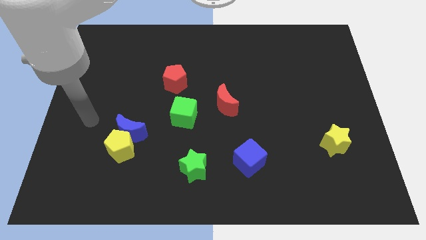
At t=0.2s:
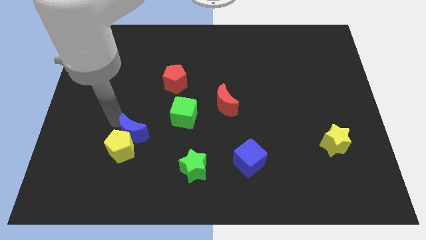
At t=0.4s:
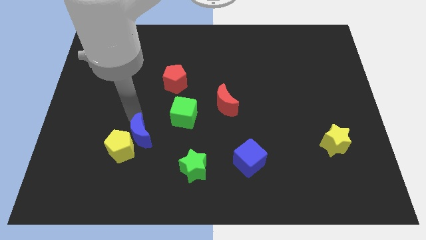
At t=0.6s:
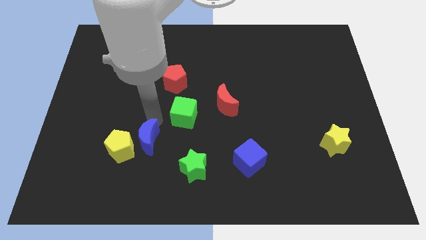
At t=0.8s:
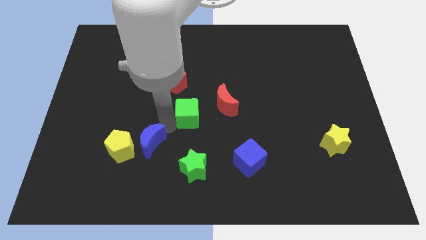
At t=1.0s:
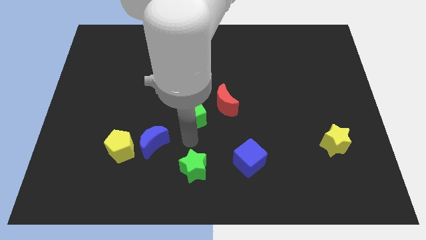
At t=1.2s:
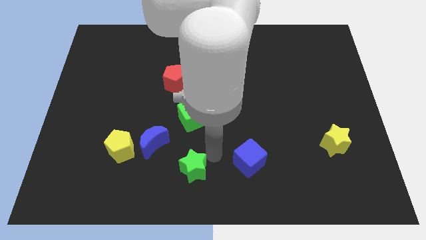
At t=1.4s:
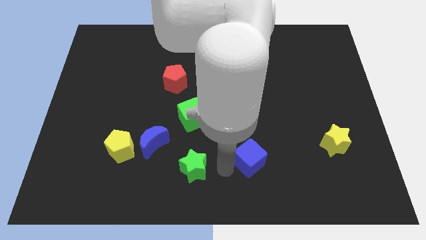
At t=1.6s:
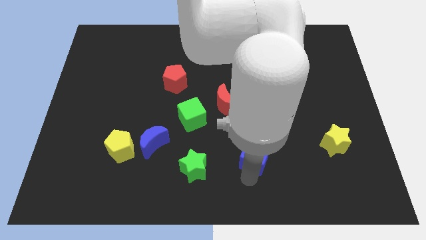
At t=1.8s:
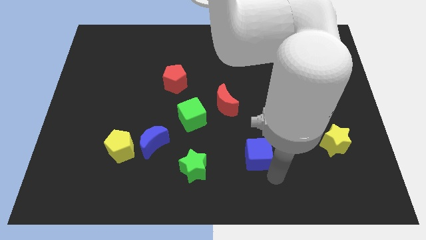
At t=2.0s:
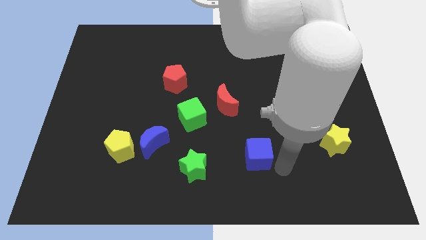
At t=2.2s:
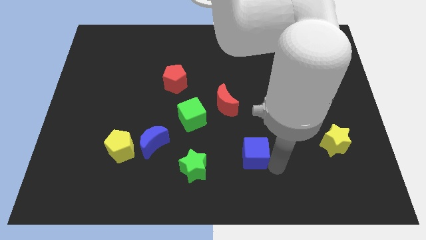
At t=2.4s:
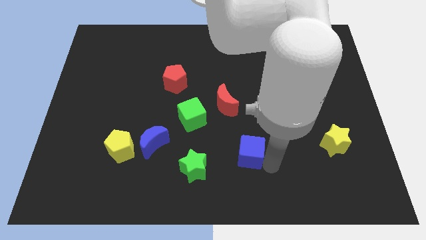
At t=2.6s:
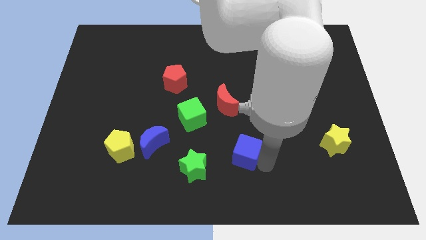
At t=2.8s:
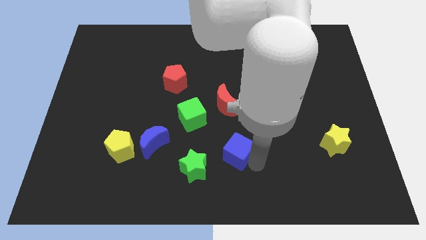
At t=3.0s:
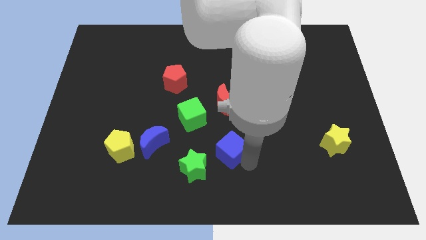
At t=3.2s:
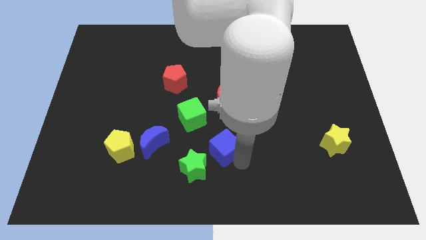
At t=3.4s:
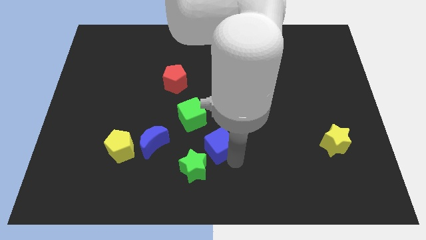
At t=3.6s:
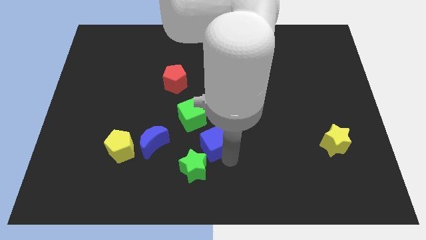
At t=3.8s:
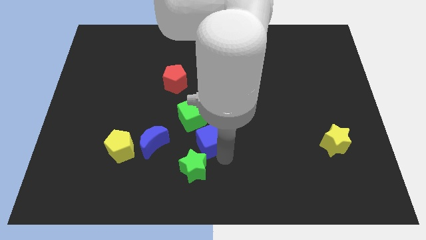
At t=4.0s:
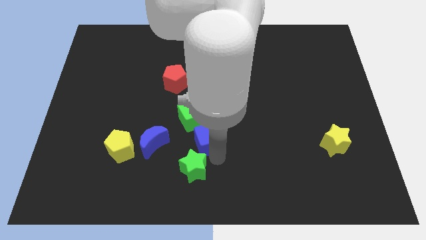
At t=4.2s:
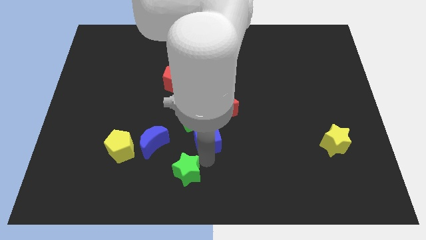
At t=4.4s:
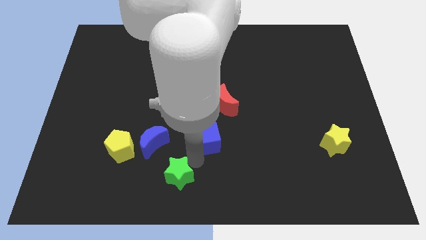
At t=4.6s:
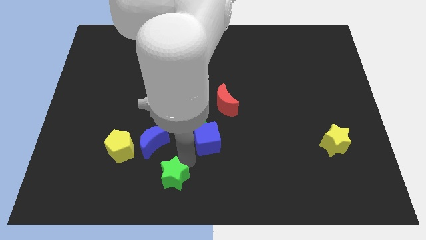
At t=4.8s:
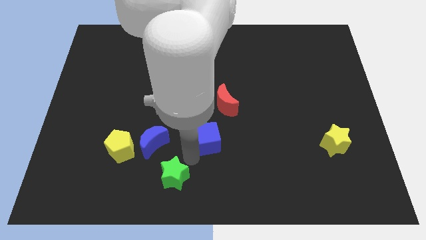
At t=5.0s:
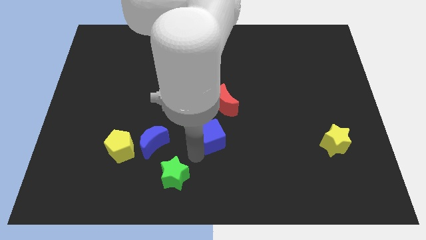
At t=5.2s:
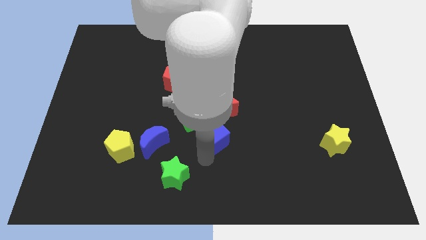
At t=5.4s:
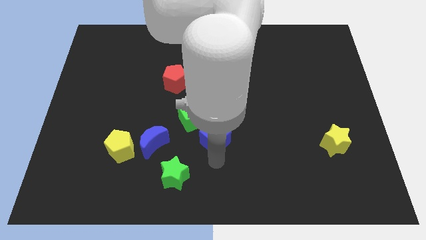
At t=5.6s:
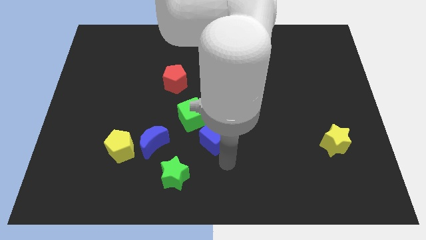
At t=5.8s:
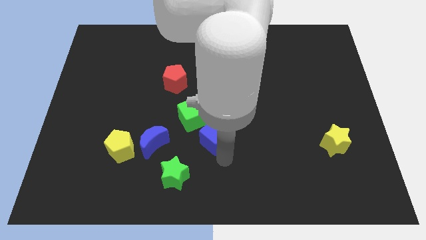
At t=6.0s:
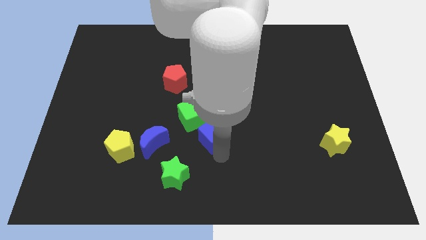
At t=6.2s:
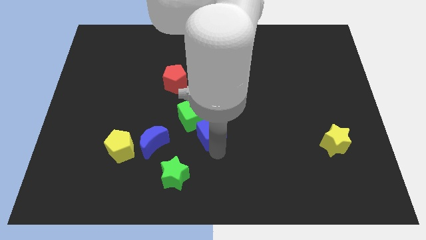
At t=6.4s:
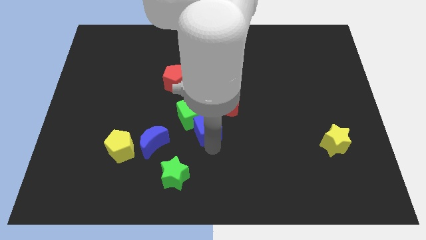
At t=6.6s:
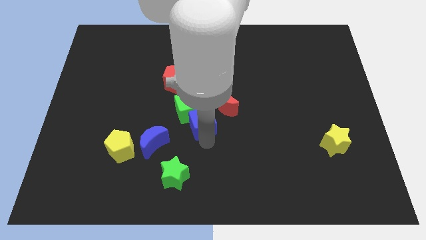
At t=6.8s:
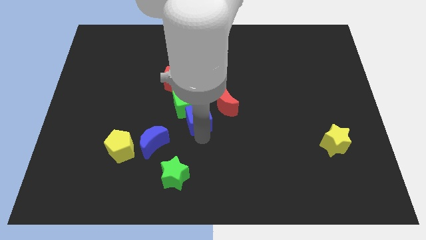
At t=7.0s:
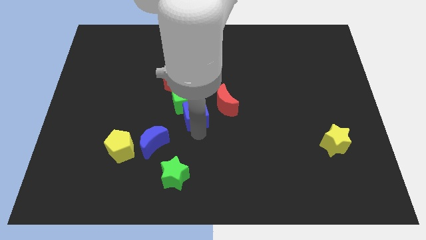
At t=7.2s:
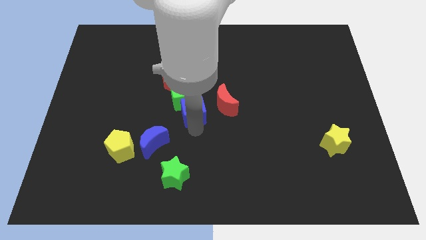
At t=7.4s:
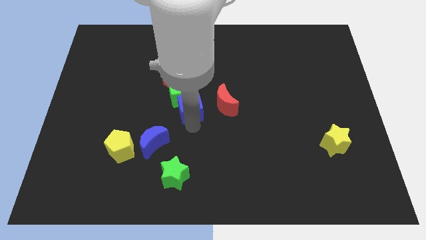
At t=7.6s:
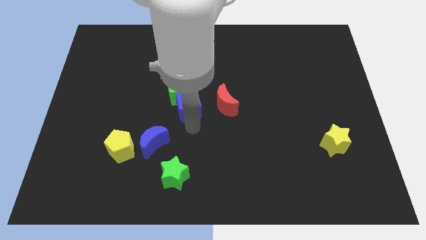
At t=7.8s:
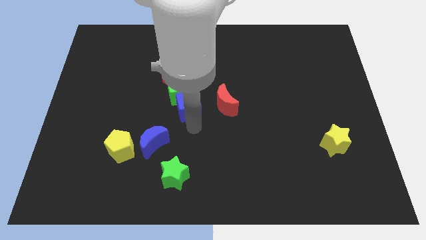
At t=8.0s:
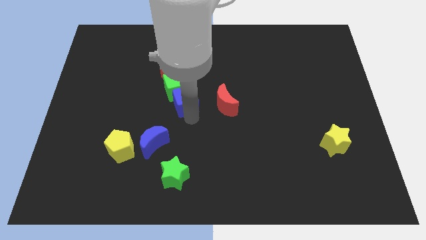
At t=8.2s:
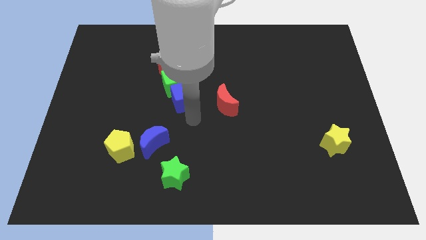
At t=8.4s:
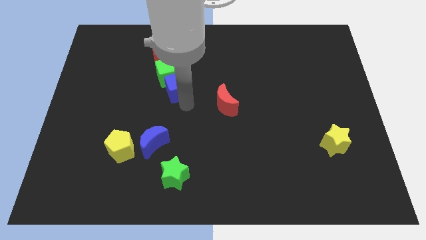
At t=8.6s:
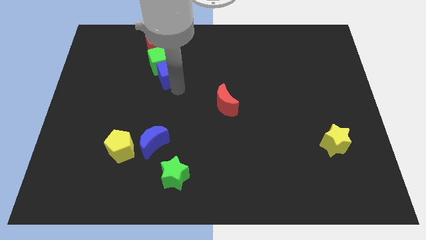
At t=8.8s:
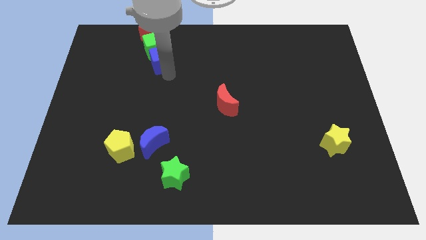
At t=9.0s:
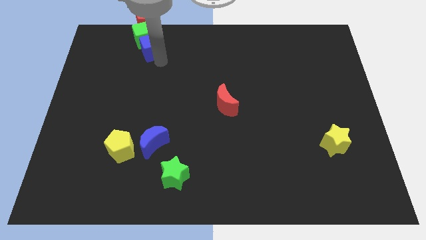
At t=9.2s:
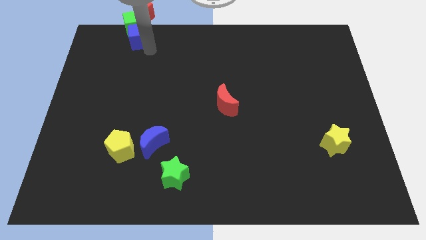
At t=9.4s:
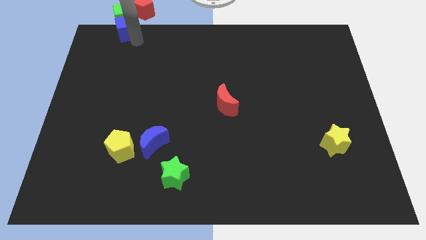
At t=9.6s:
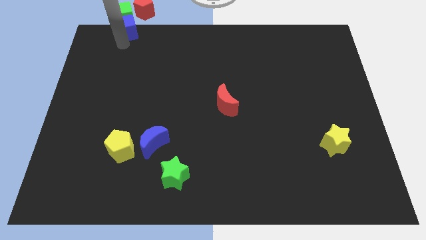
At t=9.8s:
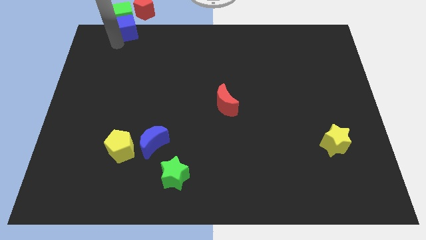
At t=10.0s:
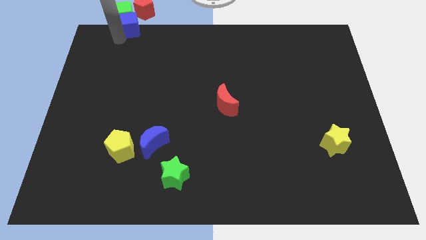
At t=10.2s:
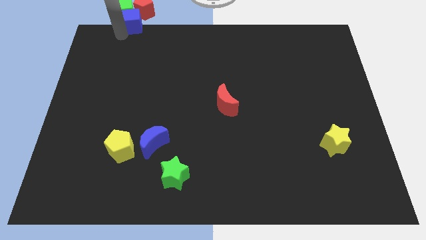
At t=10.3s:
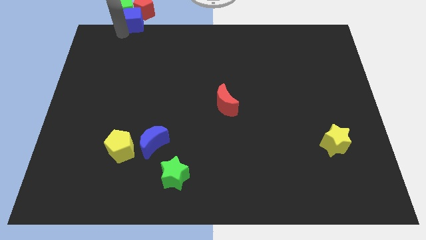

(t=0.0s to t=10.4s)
push the blue cube next to the red pentagon

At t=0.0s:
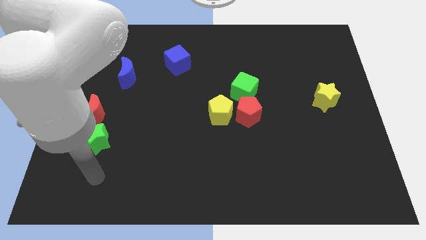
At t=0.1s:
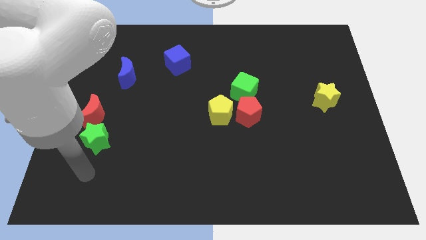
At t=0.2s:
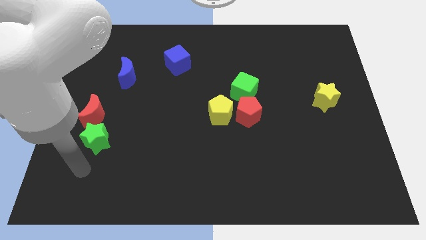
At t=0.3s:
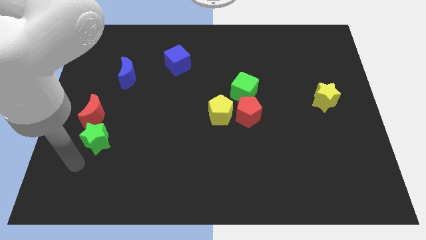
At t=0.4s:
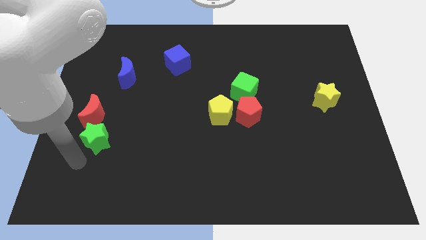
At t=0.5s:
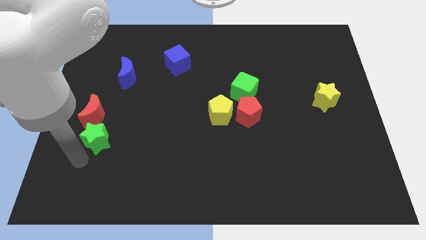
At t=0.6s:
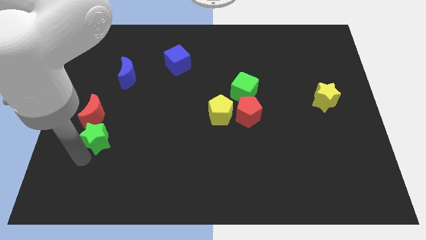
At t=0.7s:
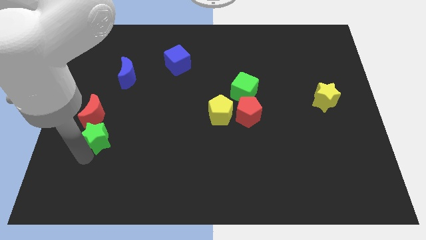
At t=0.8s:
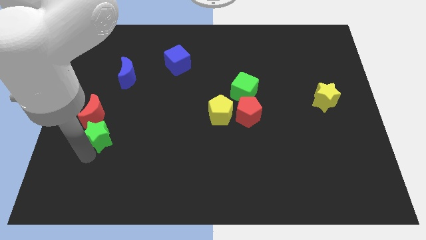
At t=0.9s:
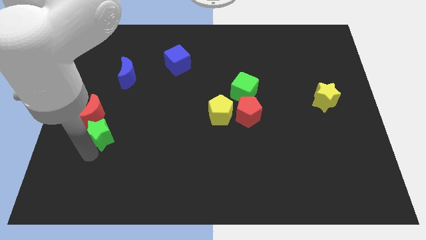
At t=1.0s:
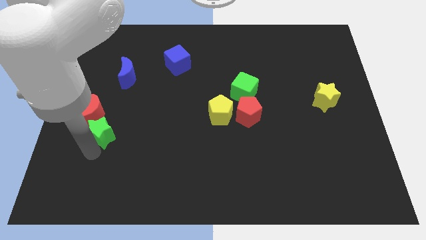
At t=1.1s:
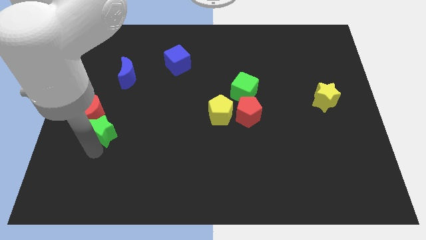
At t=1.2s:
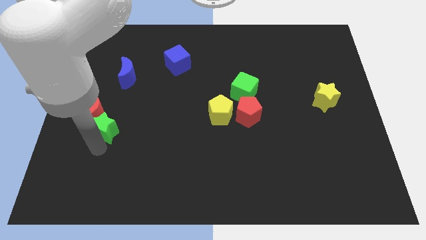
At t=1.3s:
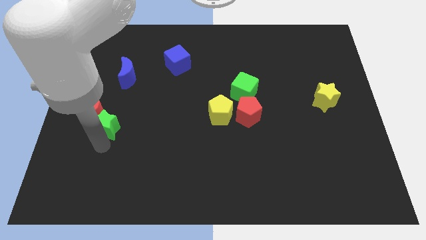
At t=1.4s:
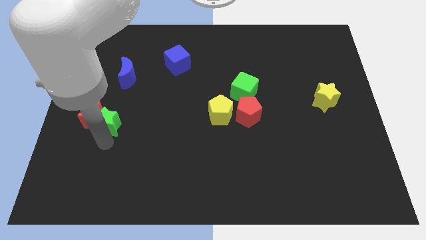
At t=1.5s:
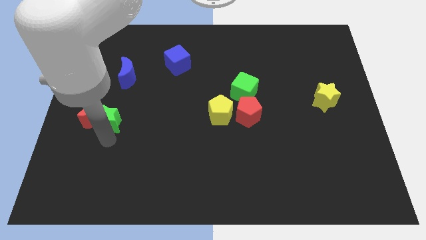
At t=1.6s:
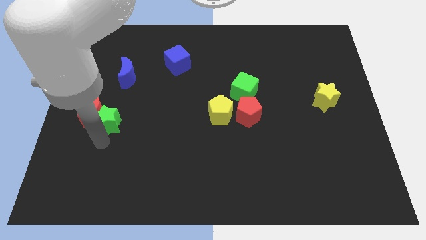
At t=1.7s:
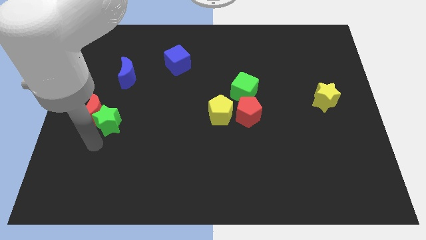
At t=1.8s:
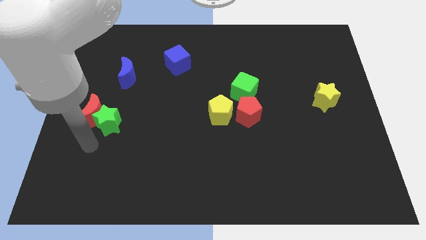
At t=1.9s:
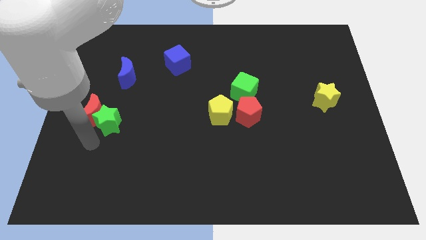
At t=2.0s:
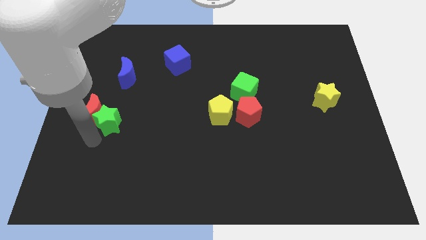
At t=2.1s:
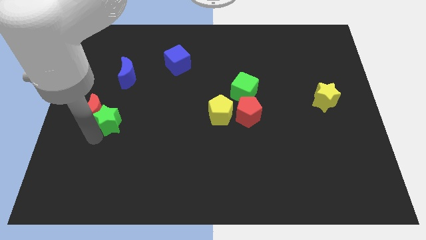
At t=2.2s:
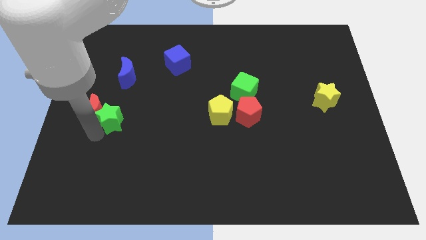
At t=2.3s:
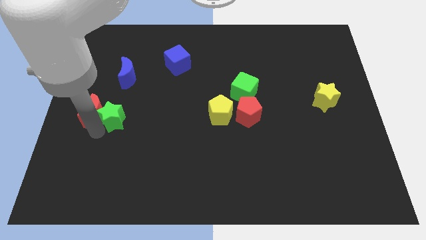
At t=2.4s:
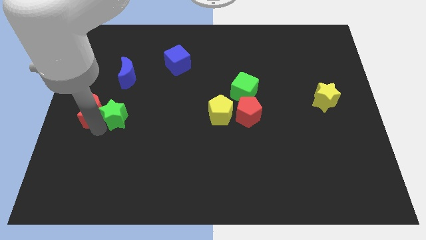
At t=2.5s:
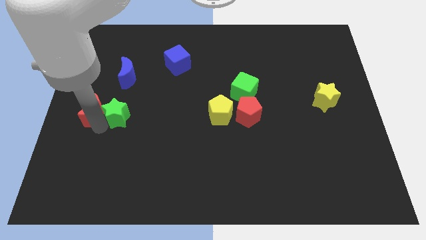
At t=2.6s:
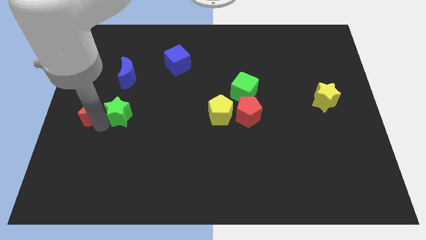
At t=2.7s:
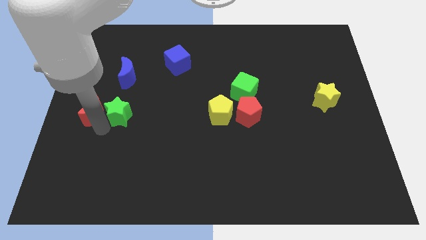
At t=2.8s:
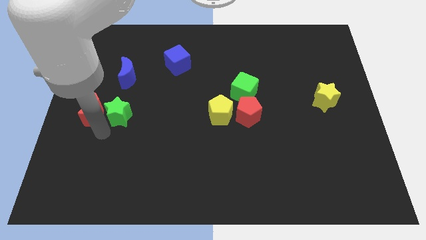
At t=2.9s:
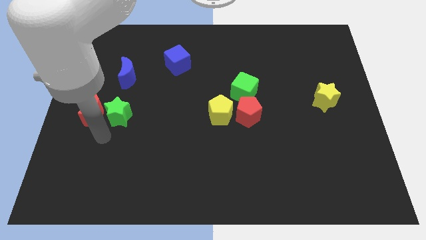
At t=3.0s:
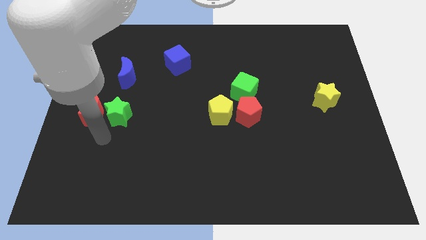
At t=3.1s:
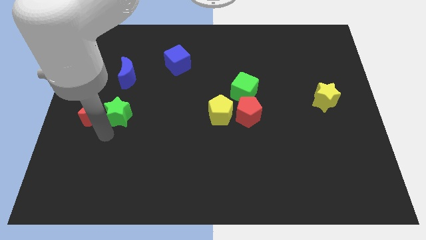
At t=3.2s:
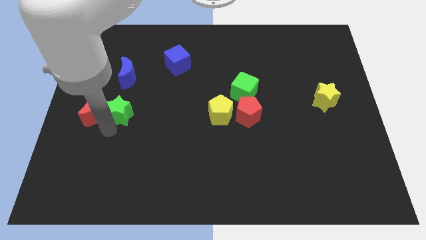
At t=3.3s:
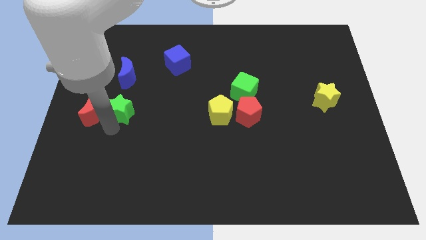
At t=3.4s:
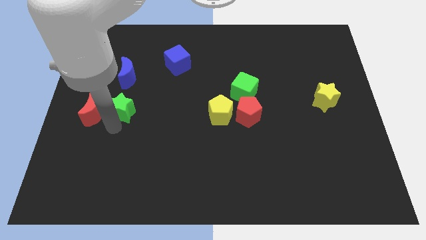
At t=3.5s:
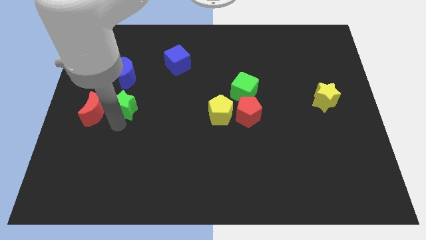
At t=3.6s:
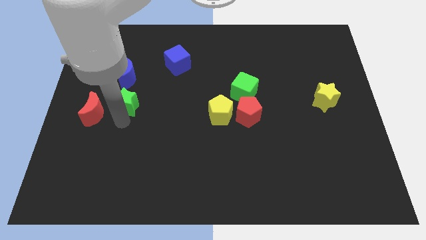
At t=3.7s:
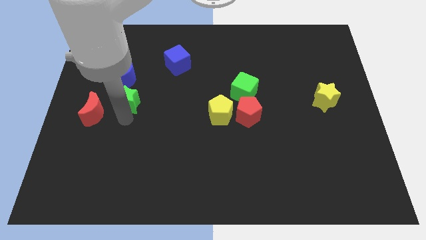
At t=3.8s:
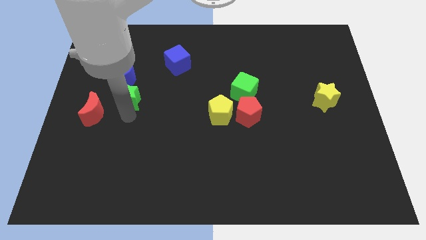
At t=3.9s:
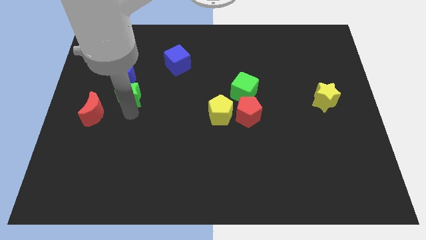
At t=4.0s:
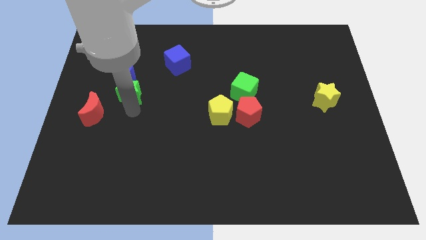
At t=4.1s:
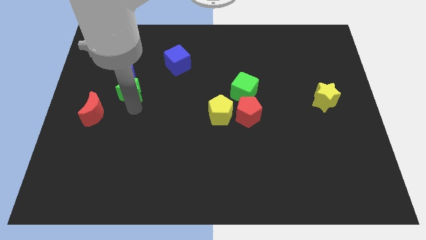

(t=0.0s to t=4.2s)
push the green star to the blue moon
